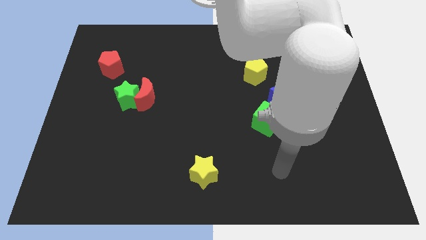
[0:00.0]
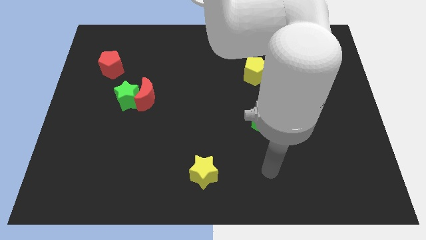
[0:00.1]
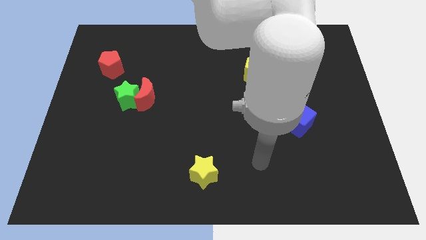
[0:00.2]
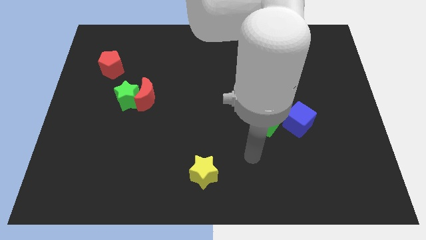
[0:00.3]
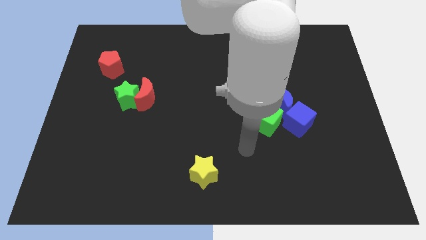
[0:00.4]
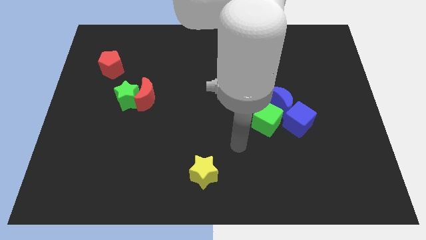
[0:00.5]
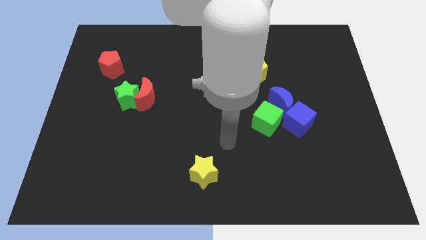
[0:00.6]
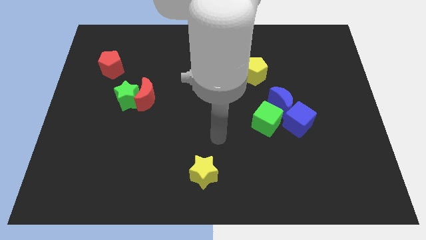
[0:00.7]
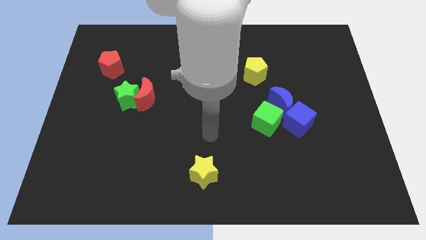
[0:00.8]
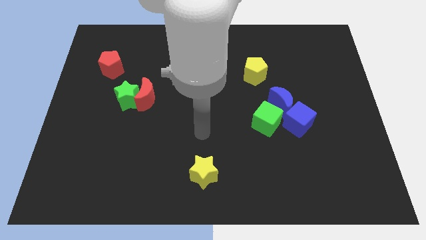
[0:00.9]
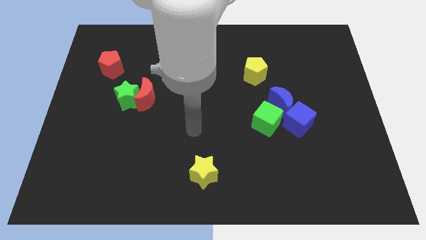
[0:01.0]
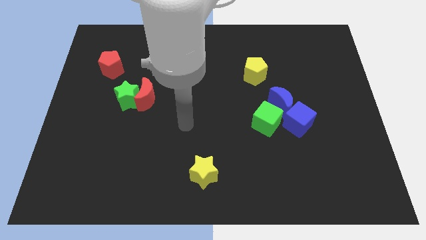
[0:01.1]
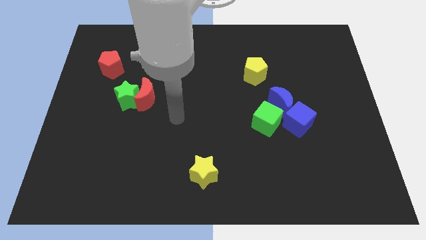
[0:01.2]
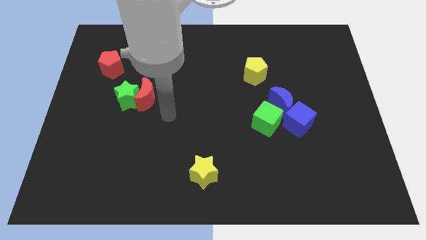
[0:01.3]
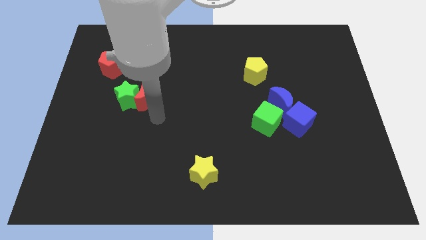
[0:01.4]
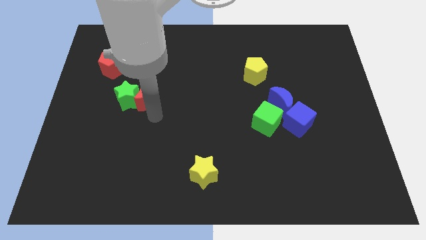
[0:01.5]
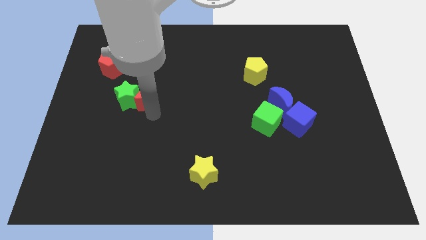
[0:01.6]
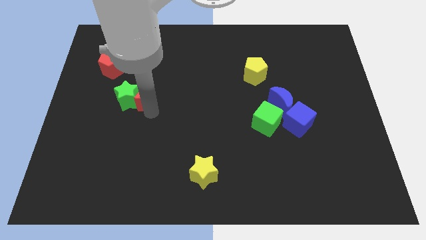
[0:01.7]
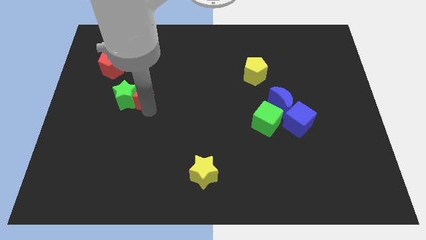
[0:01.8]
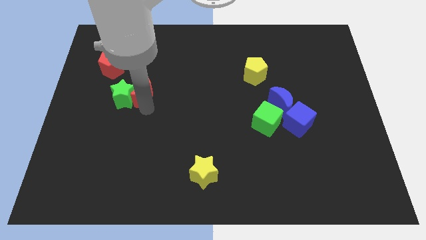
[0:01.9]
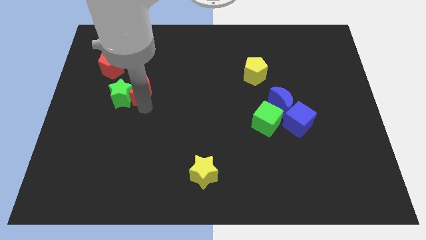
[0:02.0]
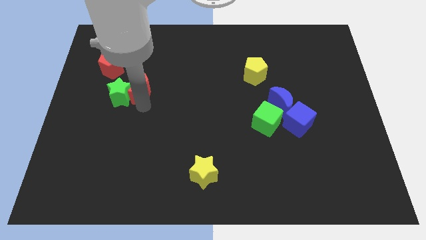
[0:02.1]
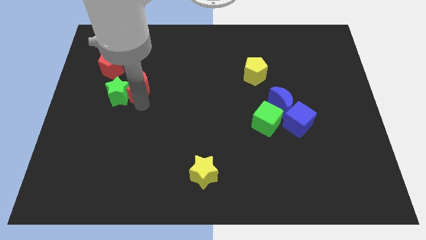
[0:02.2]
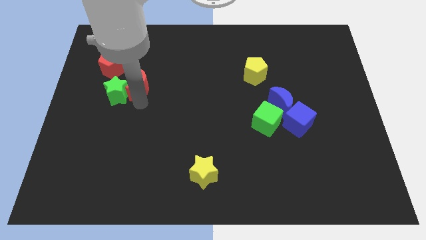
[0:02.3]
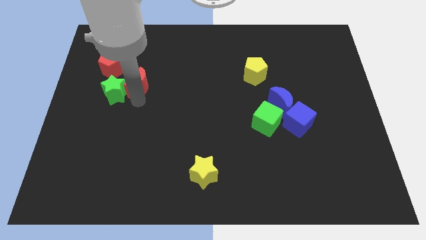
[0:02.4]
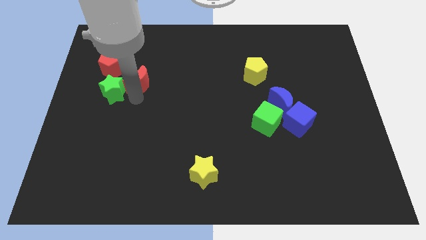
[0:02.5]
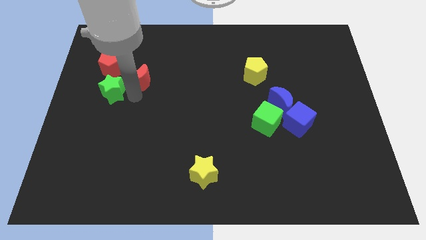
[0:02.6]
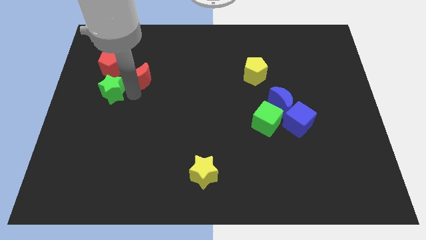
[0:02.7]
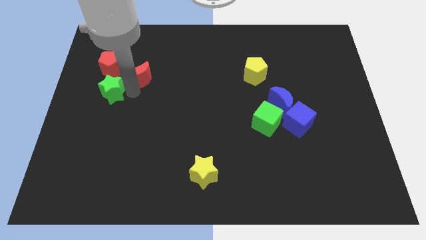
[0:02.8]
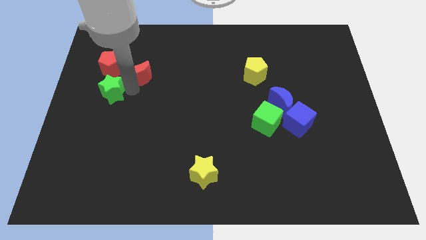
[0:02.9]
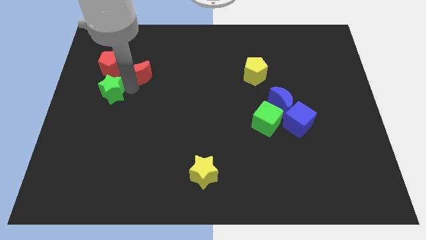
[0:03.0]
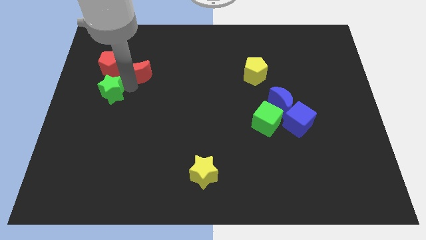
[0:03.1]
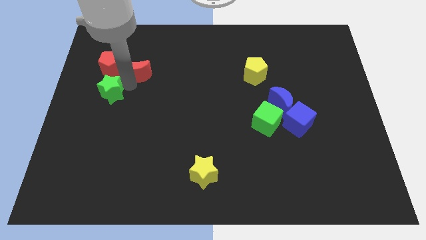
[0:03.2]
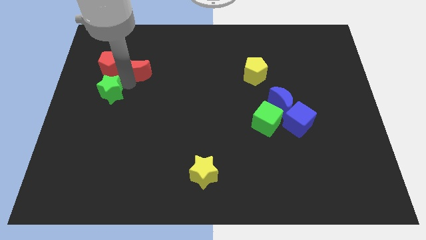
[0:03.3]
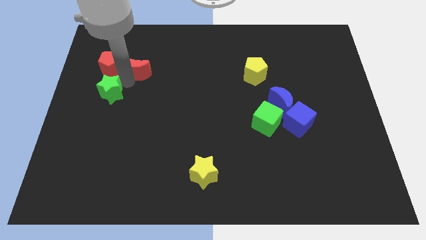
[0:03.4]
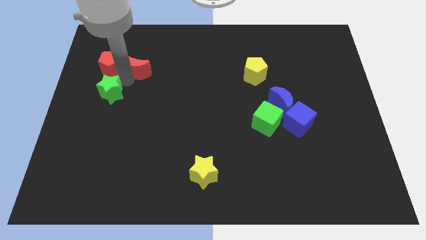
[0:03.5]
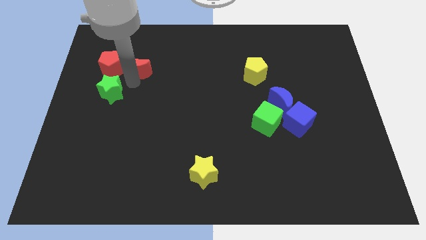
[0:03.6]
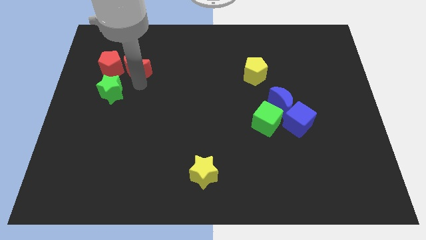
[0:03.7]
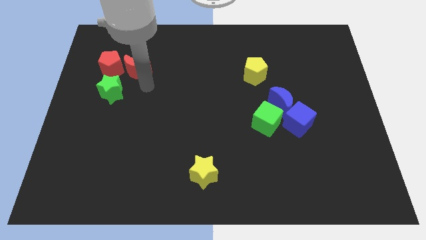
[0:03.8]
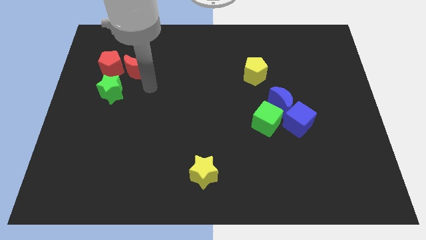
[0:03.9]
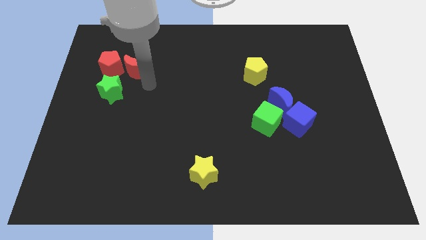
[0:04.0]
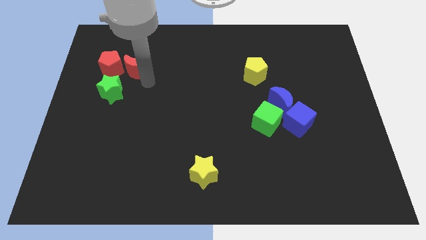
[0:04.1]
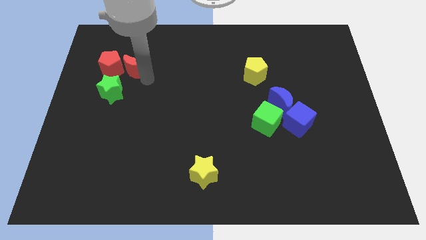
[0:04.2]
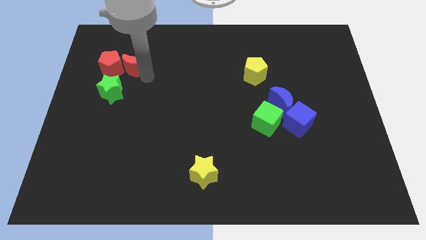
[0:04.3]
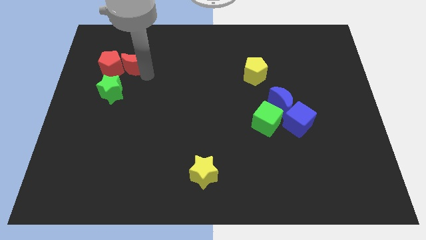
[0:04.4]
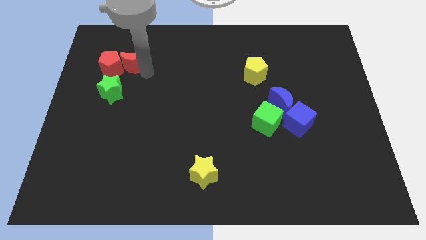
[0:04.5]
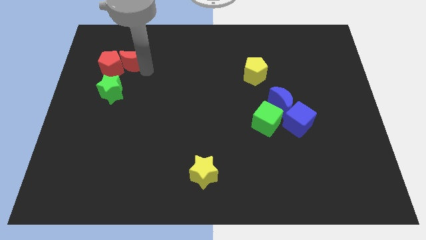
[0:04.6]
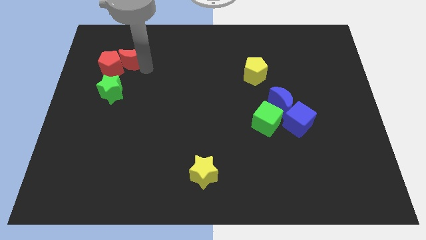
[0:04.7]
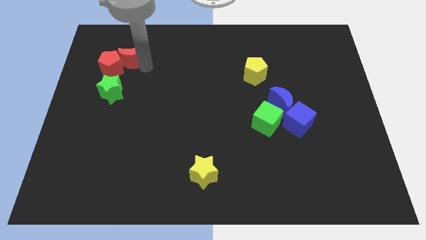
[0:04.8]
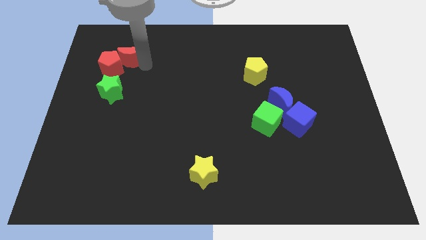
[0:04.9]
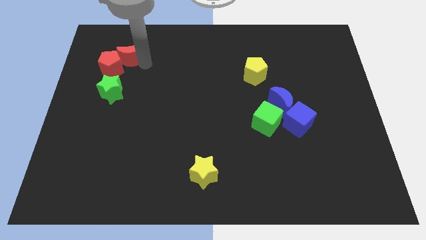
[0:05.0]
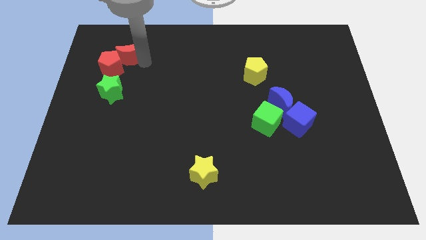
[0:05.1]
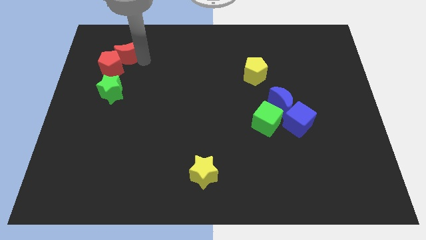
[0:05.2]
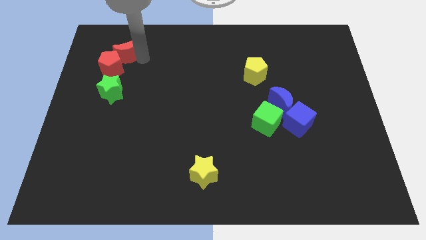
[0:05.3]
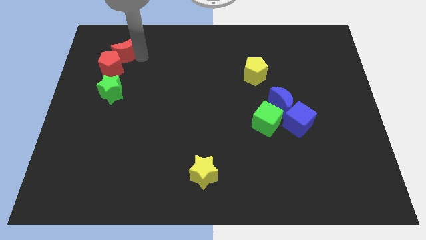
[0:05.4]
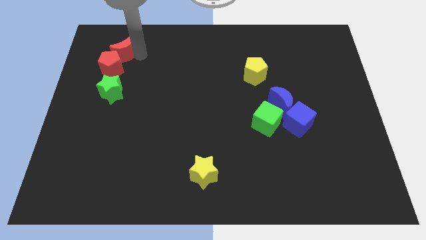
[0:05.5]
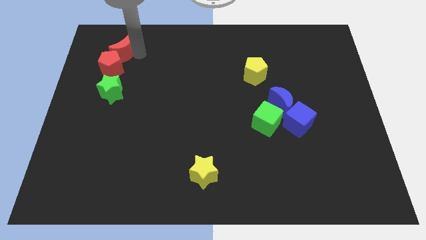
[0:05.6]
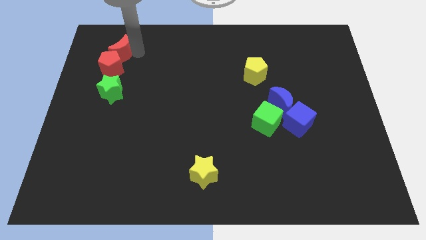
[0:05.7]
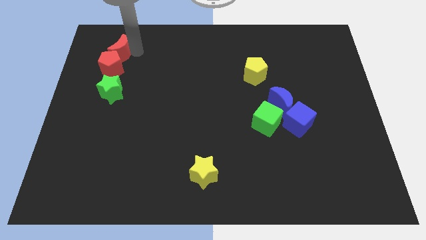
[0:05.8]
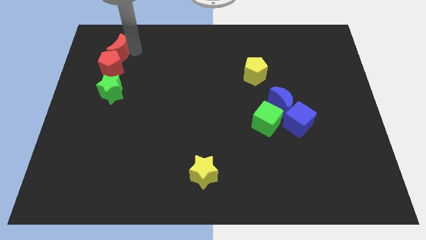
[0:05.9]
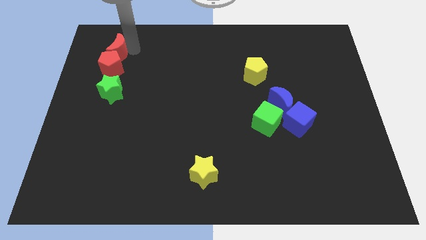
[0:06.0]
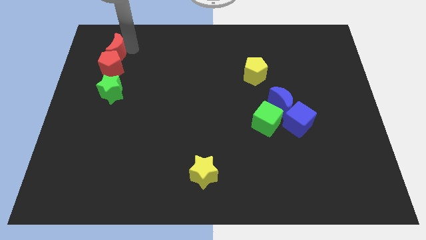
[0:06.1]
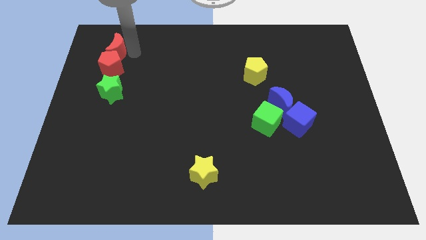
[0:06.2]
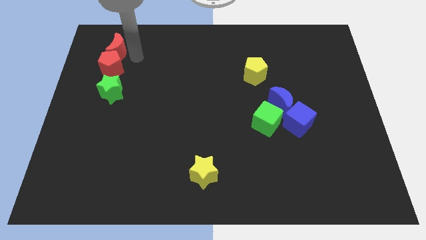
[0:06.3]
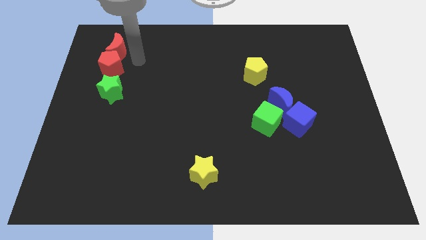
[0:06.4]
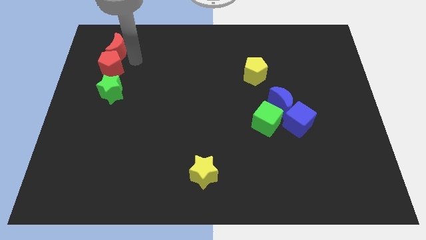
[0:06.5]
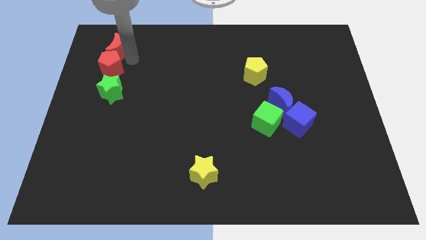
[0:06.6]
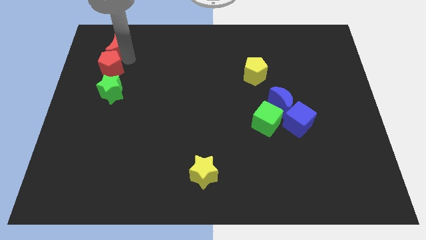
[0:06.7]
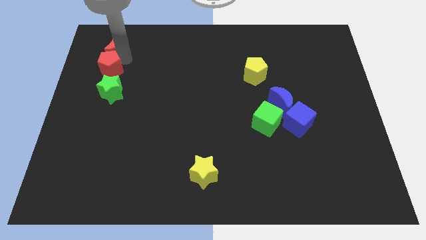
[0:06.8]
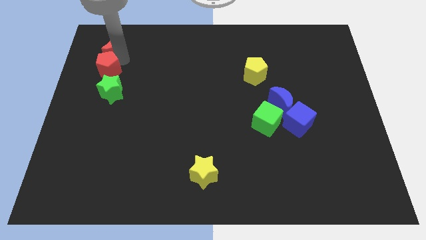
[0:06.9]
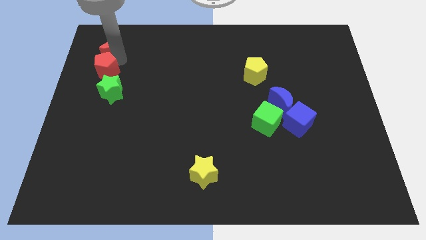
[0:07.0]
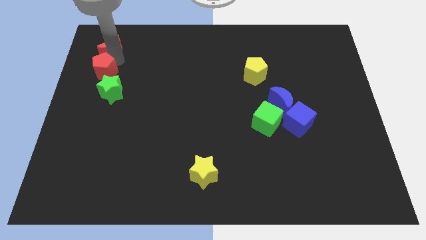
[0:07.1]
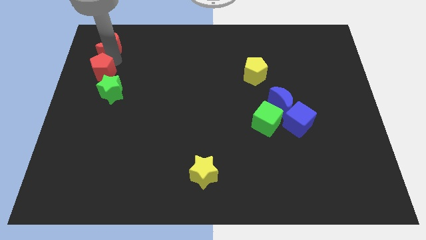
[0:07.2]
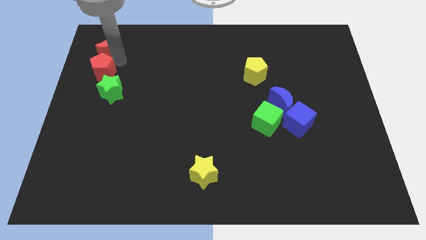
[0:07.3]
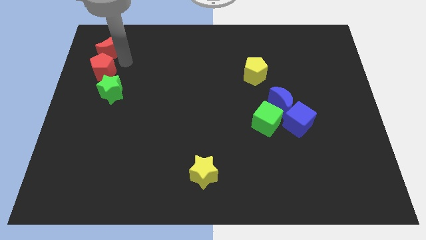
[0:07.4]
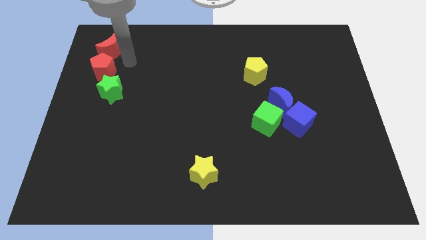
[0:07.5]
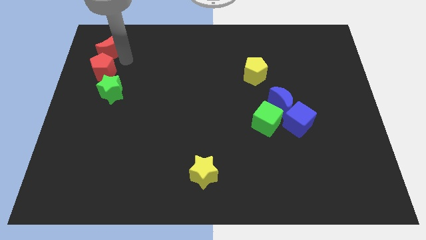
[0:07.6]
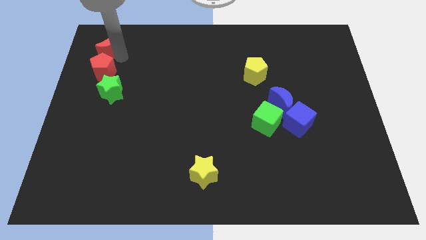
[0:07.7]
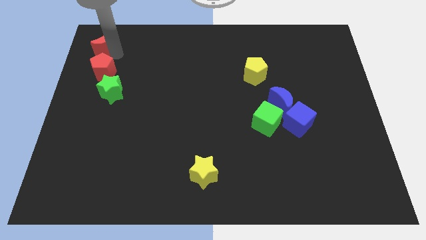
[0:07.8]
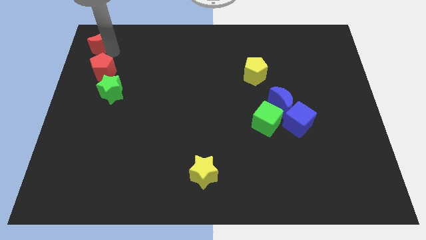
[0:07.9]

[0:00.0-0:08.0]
slide the red moon to the top left
